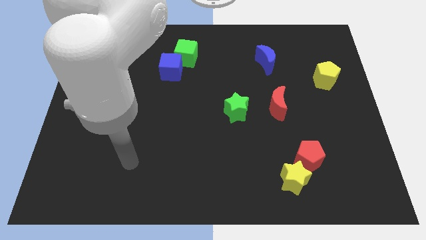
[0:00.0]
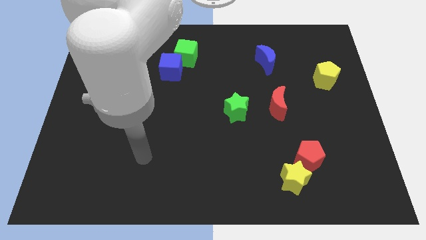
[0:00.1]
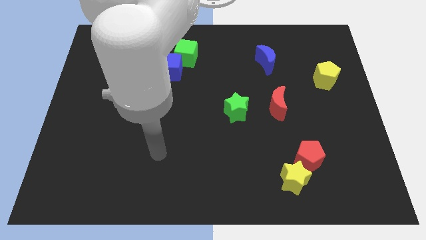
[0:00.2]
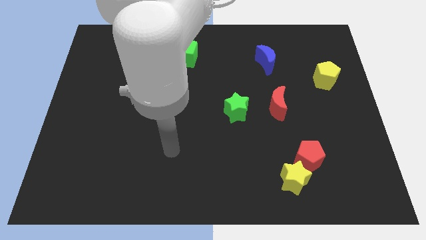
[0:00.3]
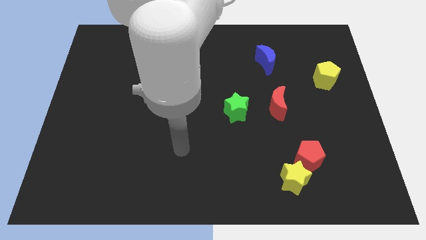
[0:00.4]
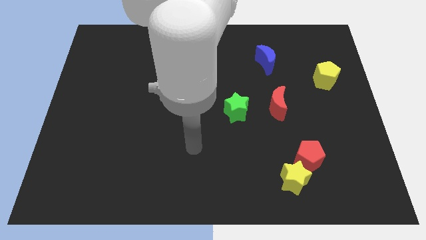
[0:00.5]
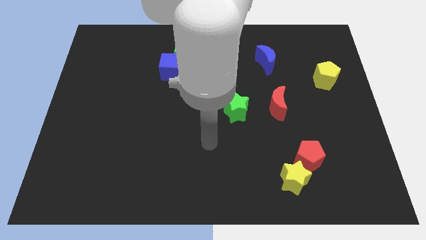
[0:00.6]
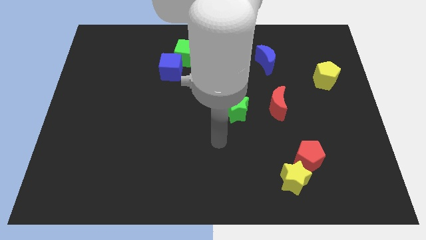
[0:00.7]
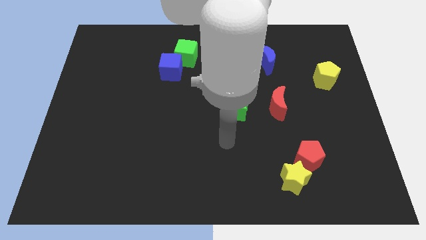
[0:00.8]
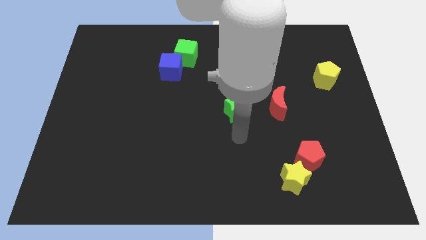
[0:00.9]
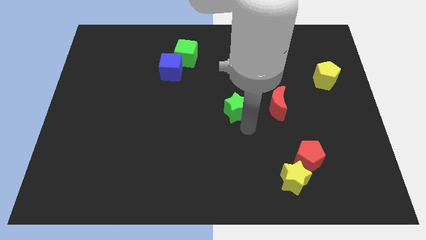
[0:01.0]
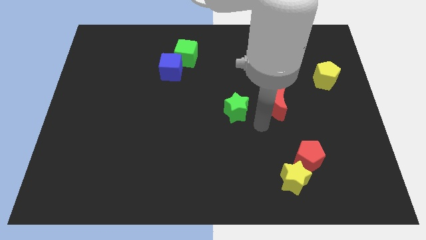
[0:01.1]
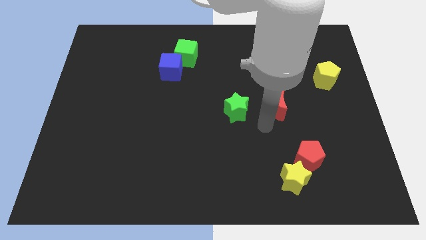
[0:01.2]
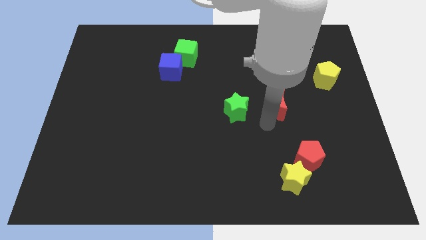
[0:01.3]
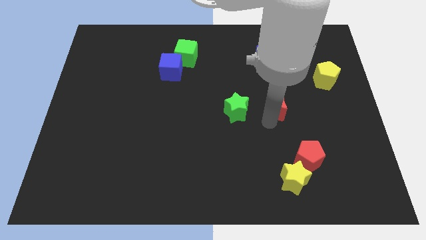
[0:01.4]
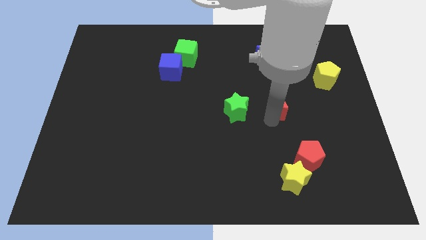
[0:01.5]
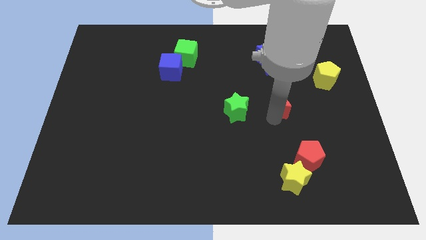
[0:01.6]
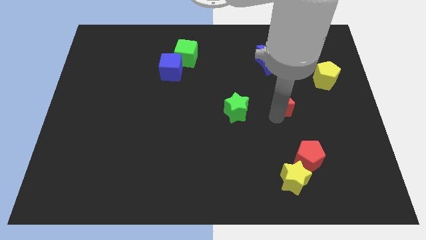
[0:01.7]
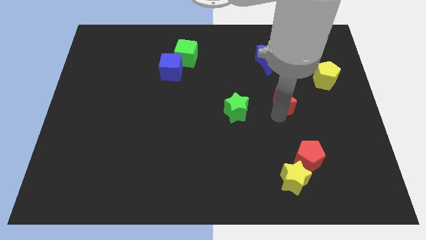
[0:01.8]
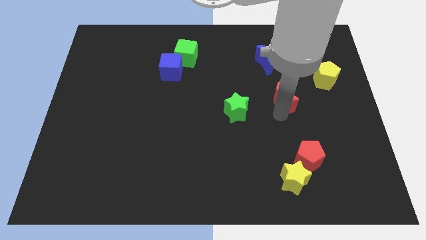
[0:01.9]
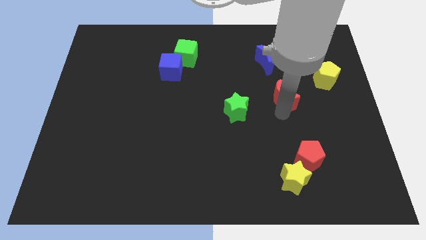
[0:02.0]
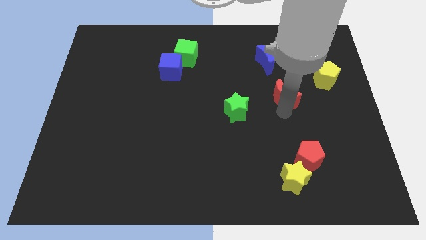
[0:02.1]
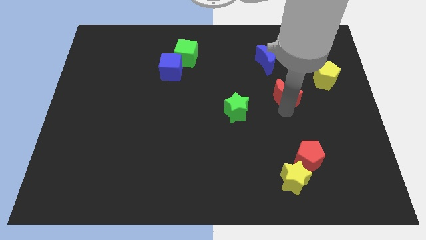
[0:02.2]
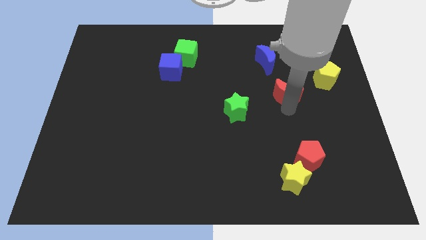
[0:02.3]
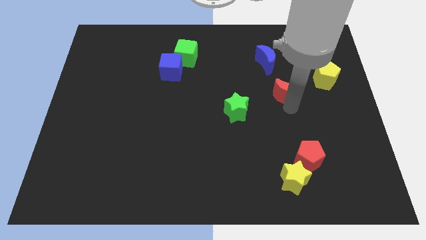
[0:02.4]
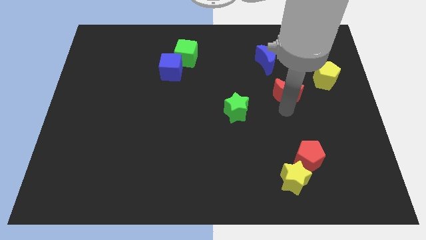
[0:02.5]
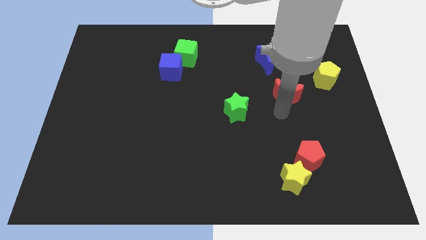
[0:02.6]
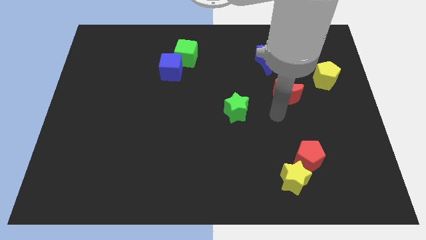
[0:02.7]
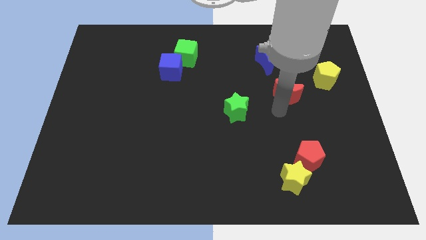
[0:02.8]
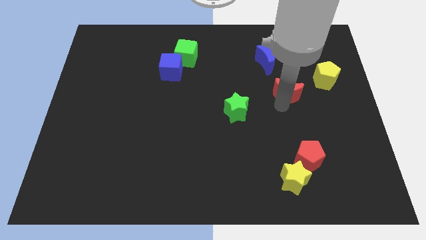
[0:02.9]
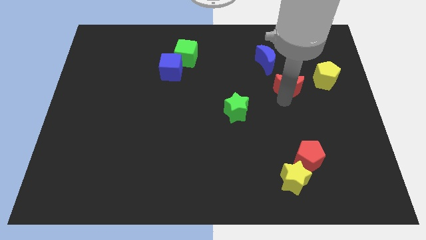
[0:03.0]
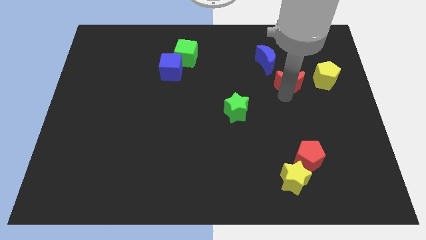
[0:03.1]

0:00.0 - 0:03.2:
slightly slide the red moon up and right

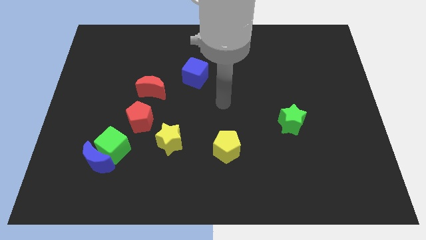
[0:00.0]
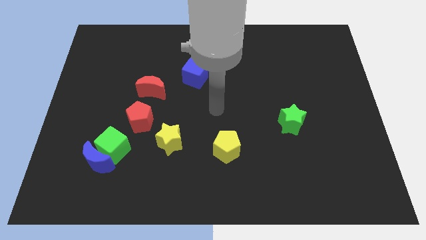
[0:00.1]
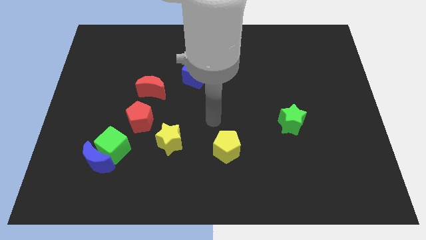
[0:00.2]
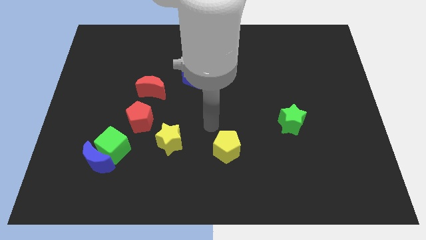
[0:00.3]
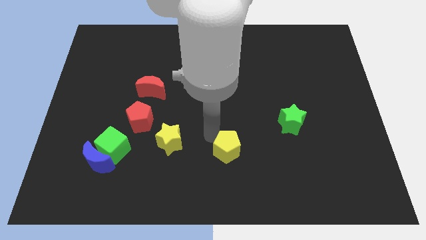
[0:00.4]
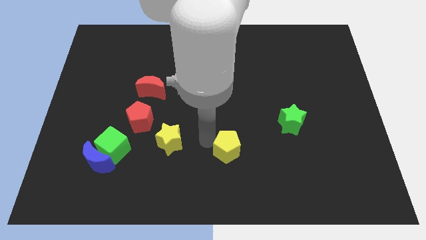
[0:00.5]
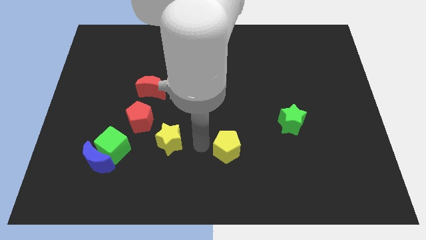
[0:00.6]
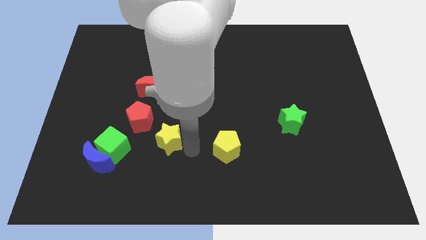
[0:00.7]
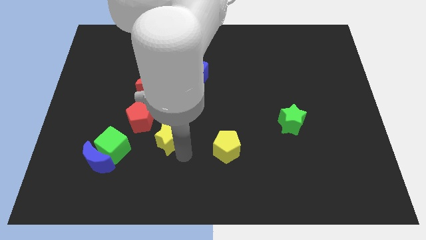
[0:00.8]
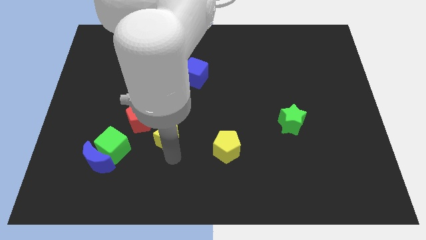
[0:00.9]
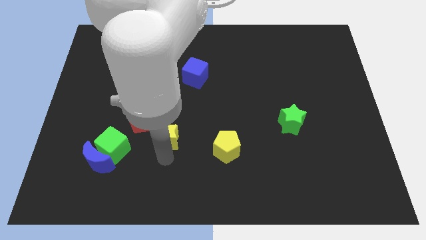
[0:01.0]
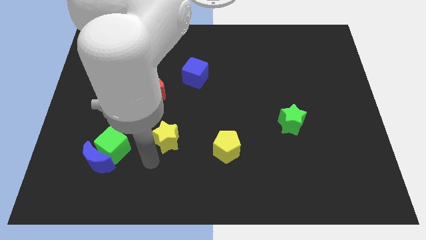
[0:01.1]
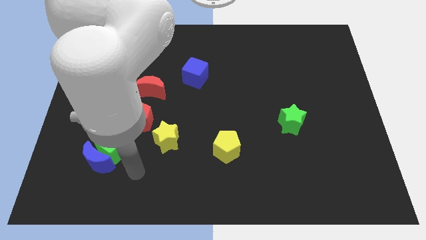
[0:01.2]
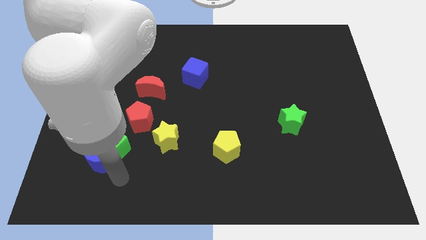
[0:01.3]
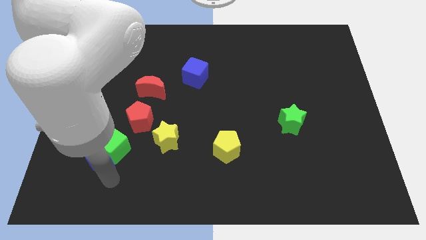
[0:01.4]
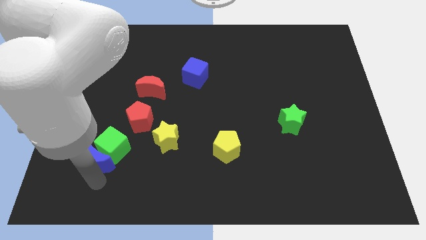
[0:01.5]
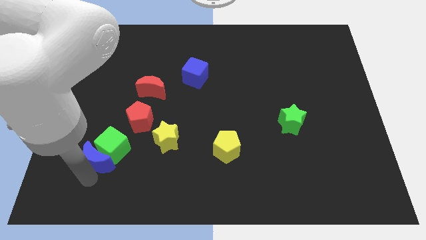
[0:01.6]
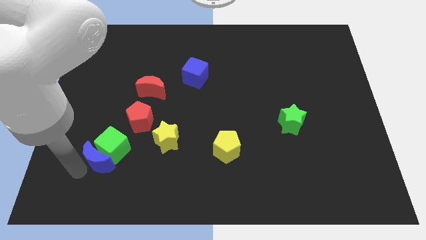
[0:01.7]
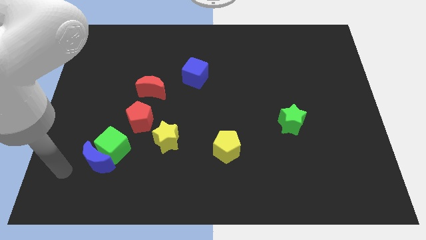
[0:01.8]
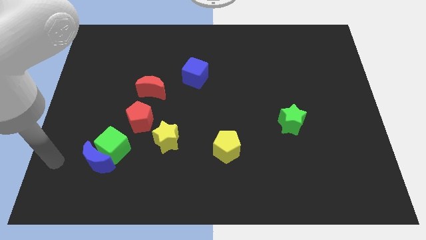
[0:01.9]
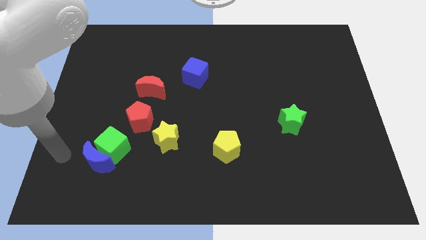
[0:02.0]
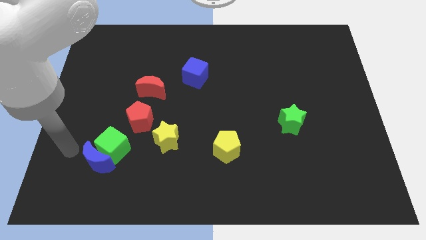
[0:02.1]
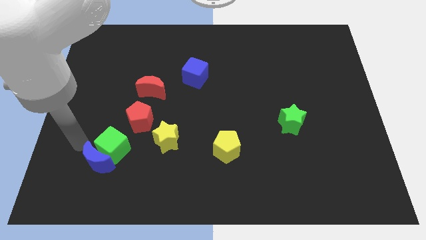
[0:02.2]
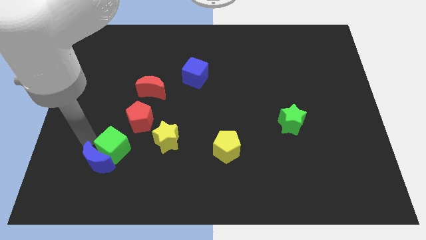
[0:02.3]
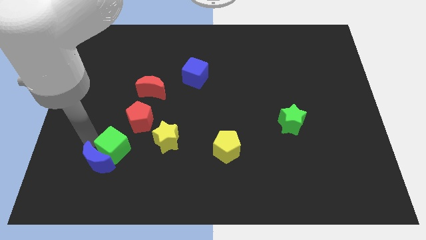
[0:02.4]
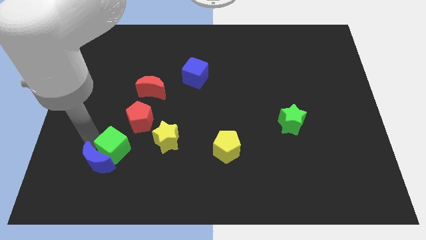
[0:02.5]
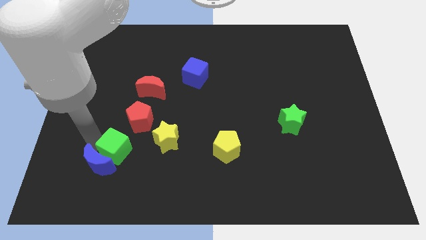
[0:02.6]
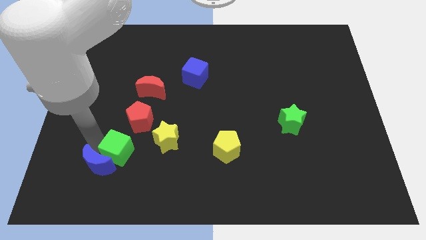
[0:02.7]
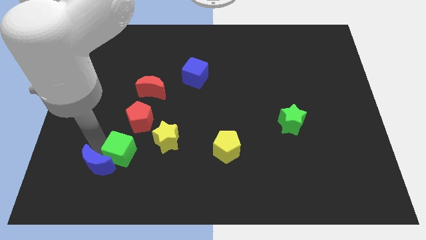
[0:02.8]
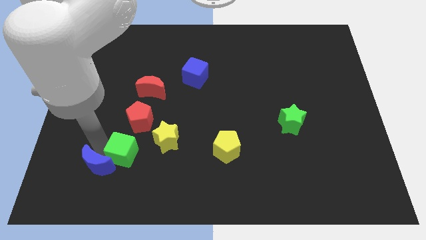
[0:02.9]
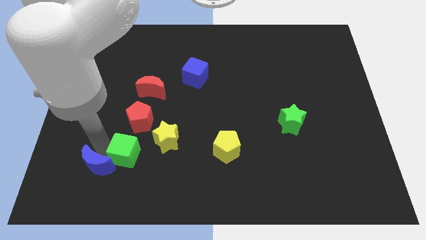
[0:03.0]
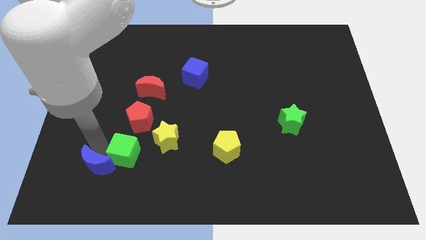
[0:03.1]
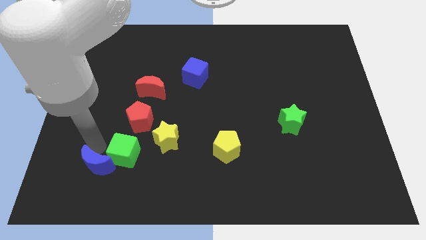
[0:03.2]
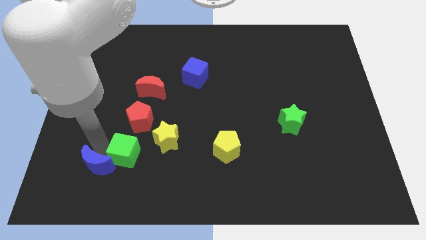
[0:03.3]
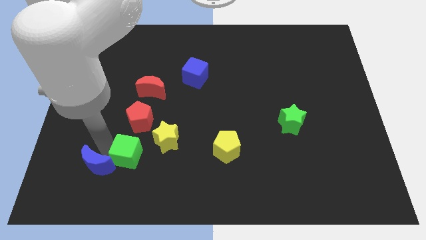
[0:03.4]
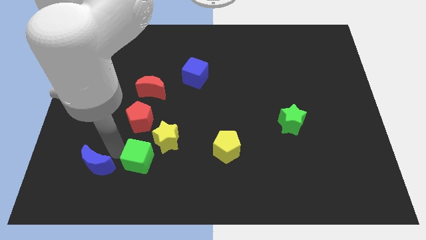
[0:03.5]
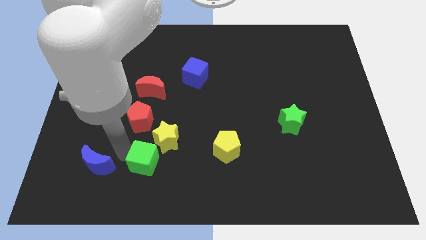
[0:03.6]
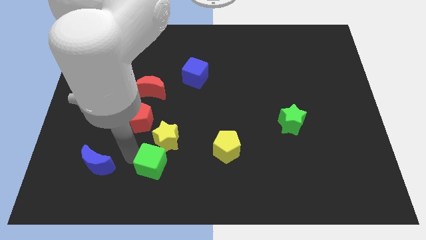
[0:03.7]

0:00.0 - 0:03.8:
move the green cube a bit right

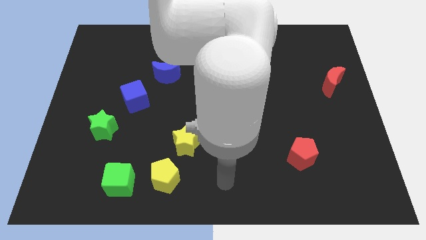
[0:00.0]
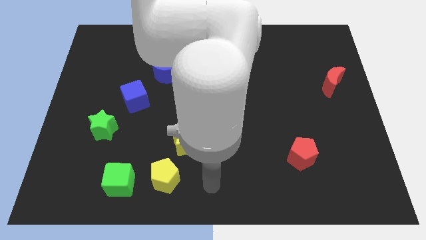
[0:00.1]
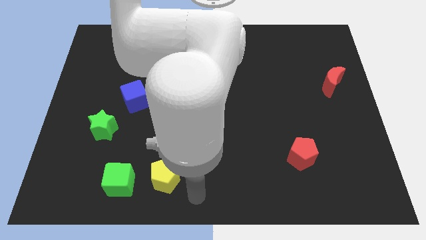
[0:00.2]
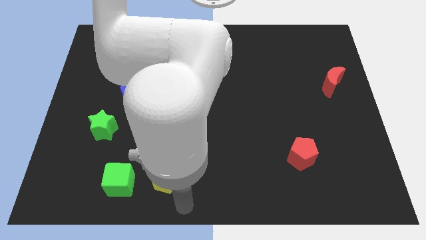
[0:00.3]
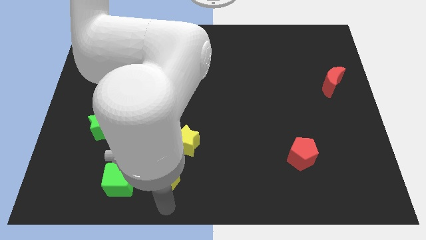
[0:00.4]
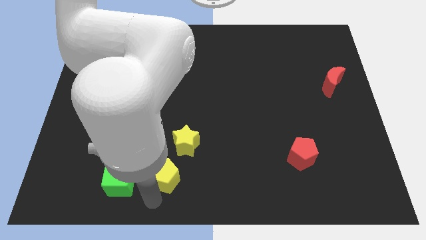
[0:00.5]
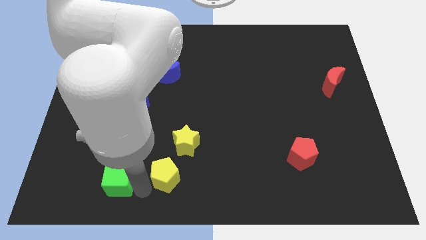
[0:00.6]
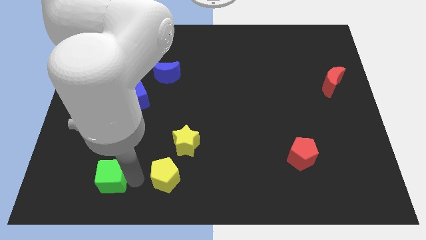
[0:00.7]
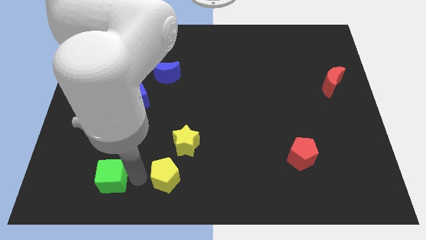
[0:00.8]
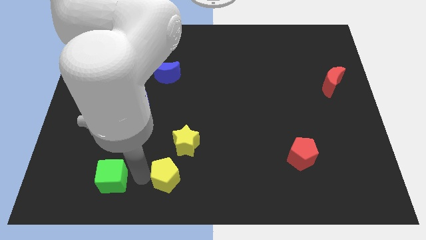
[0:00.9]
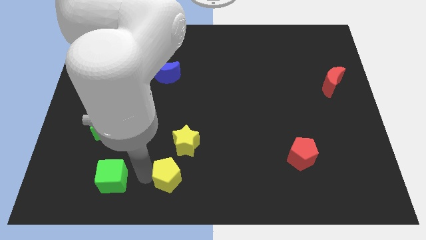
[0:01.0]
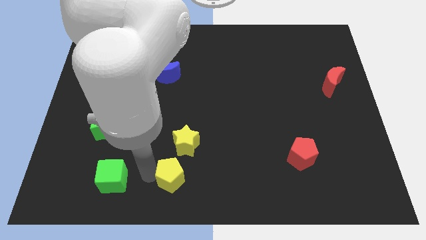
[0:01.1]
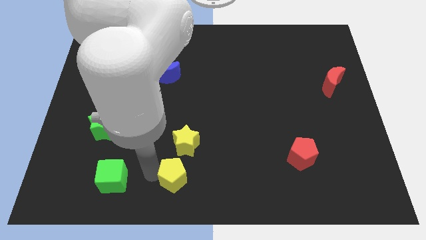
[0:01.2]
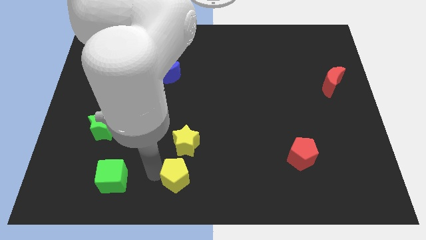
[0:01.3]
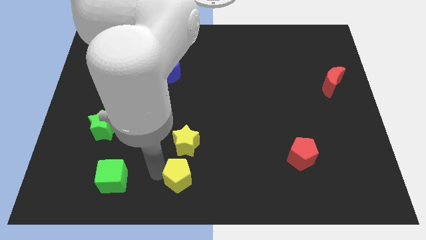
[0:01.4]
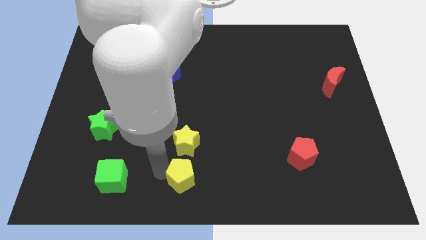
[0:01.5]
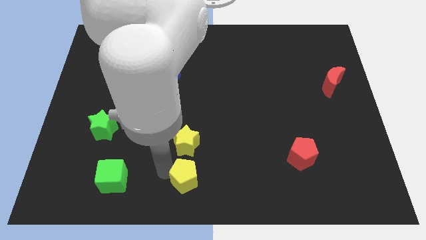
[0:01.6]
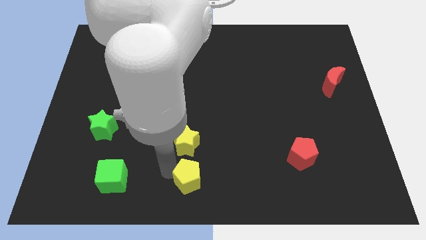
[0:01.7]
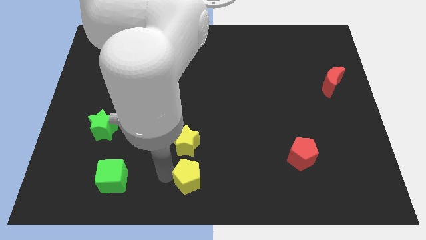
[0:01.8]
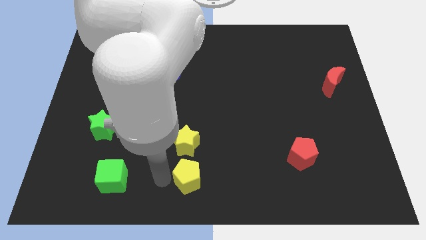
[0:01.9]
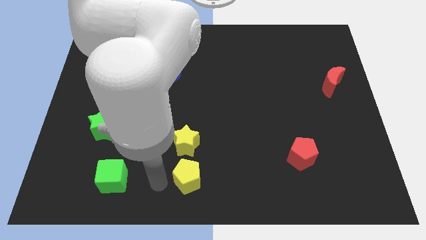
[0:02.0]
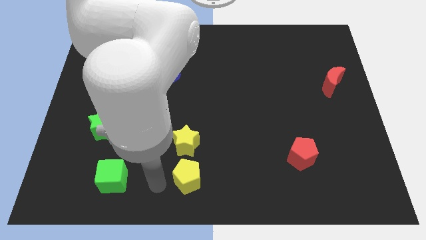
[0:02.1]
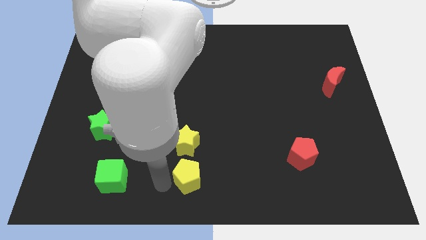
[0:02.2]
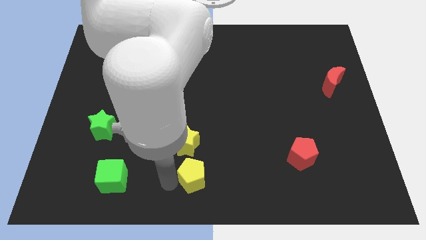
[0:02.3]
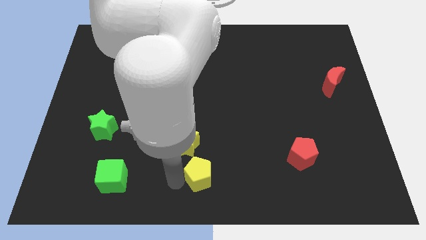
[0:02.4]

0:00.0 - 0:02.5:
slide the yellow pentagon to the right somewhat
